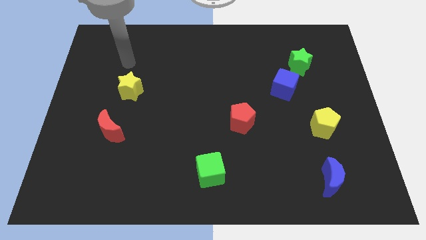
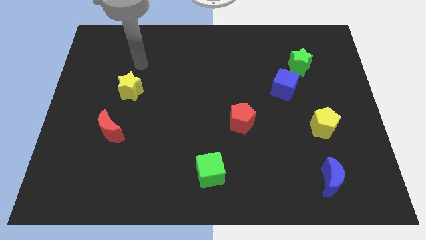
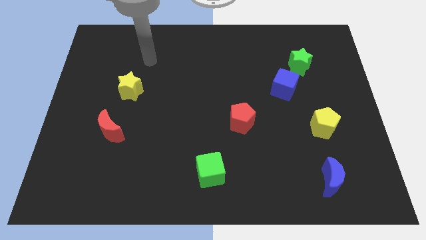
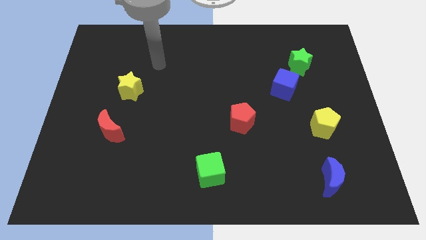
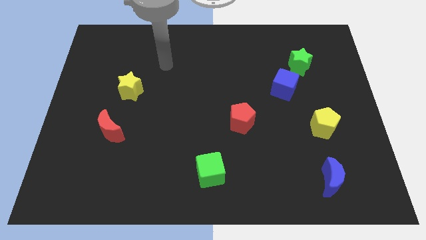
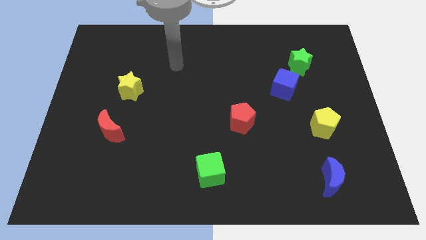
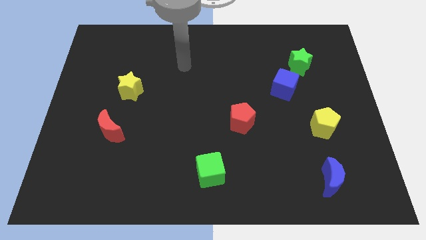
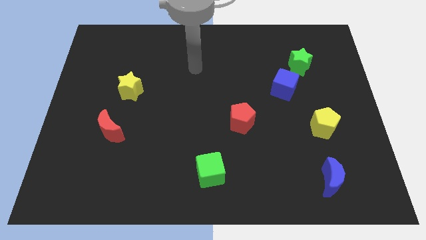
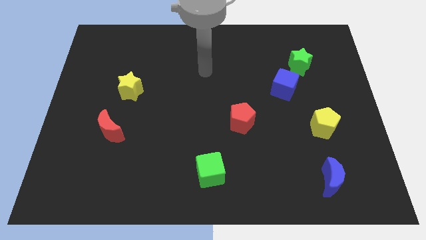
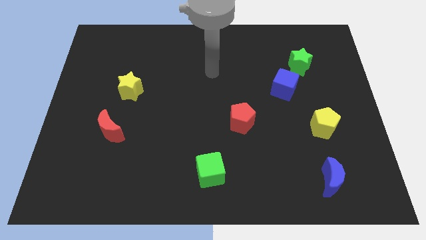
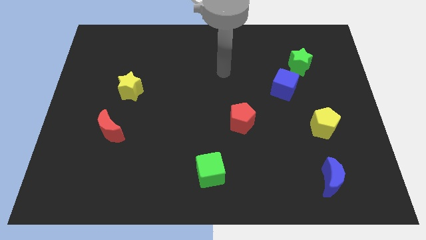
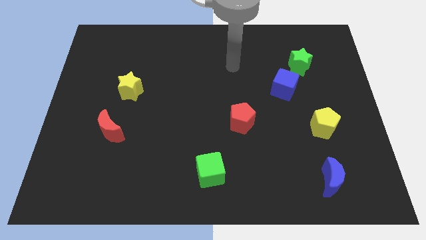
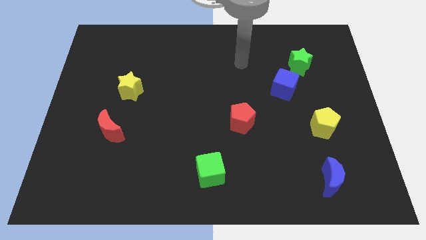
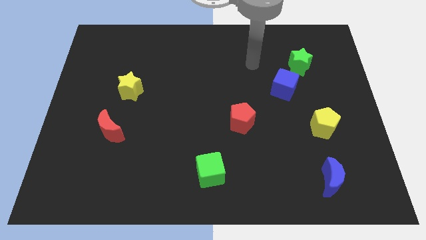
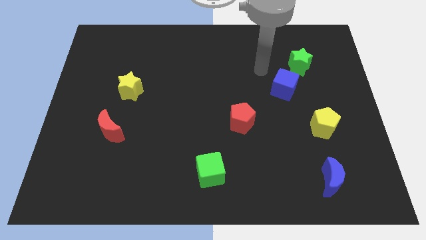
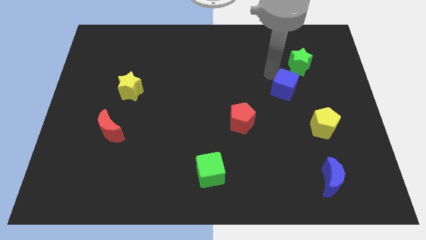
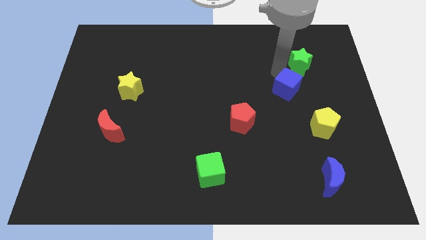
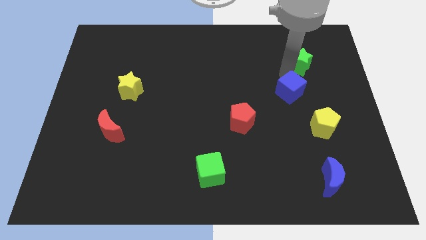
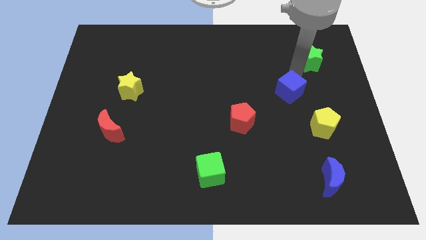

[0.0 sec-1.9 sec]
move the blue cube away from the green star

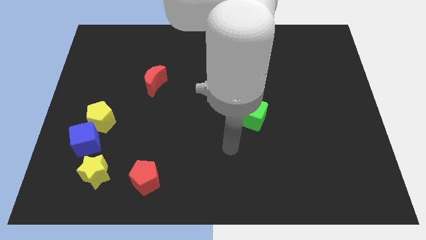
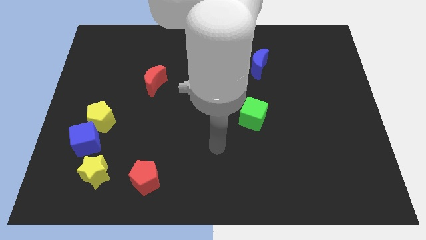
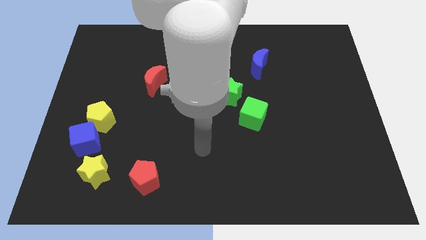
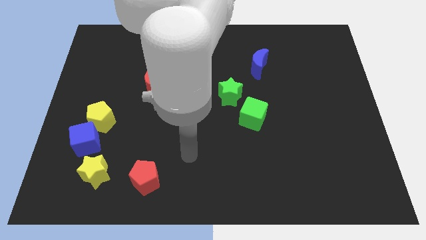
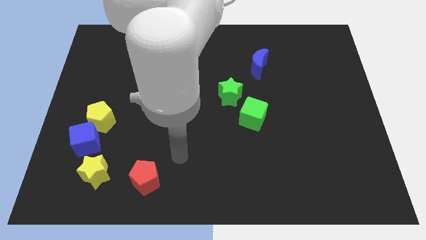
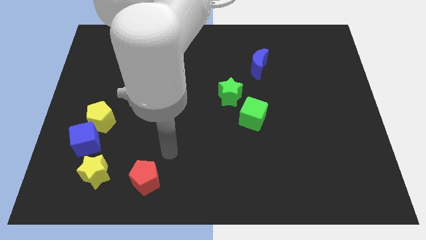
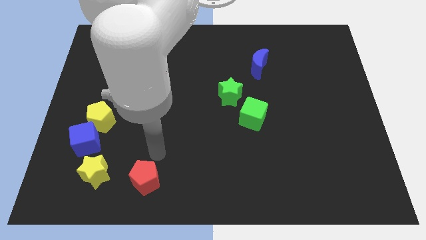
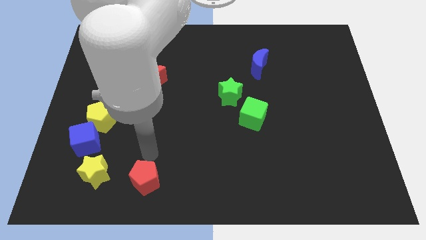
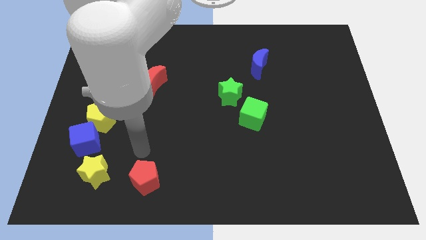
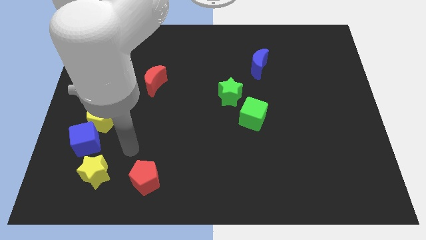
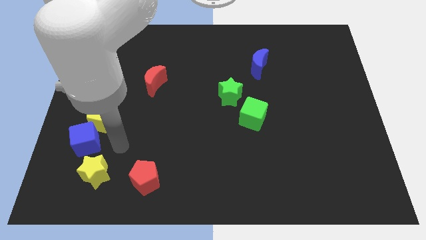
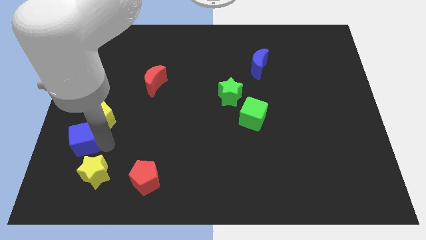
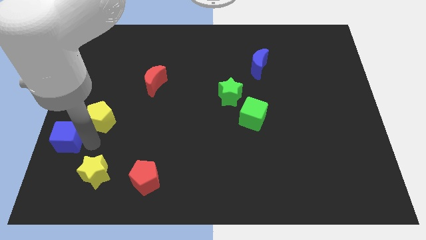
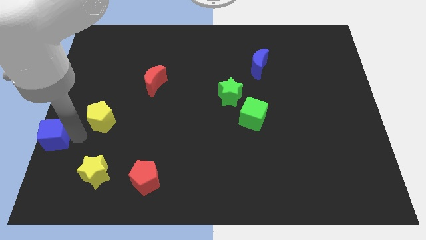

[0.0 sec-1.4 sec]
separate the yellow pentagon from the blue cube

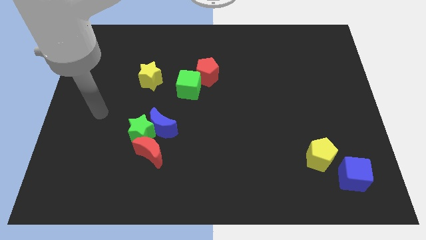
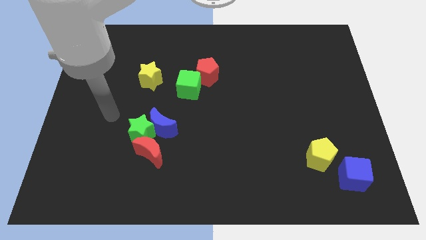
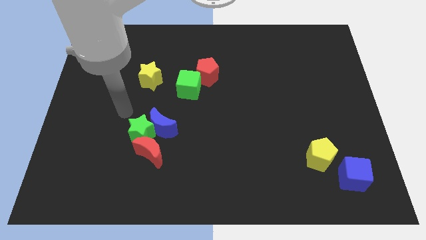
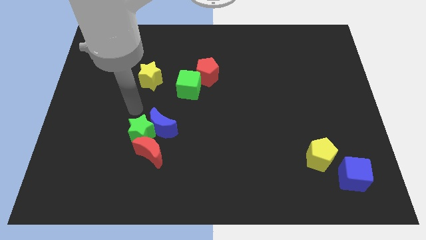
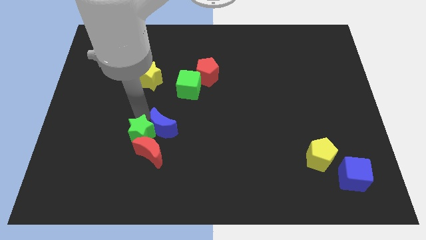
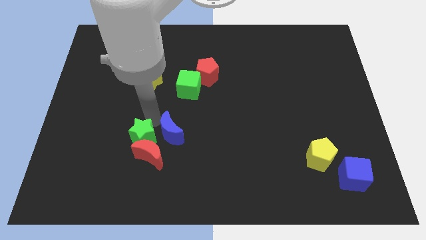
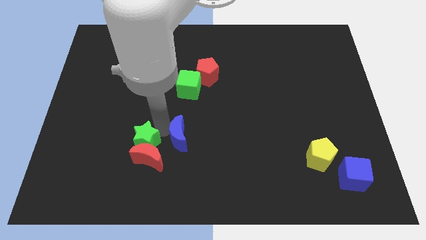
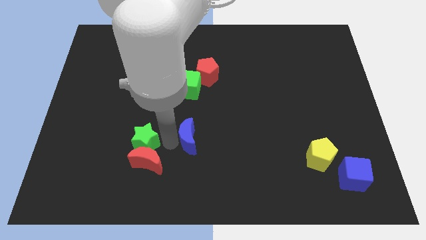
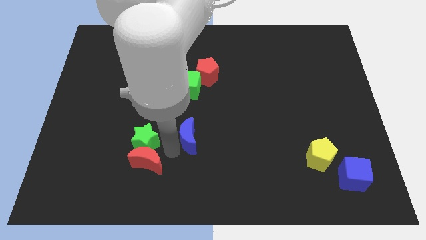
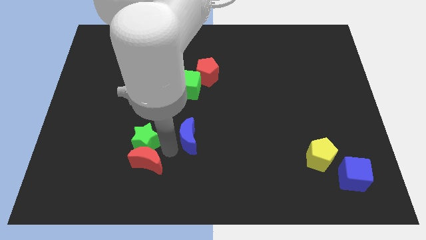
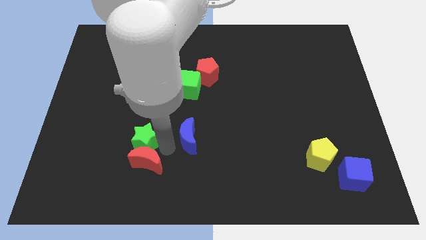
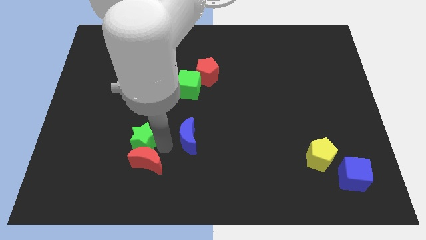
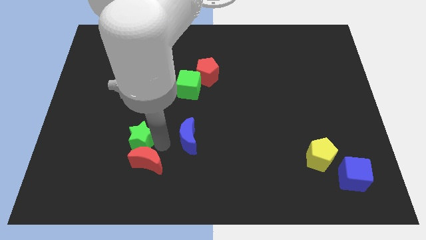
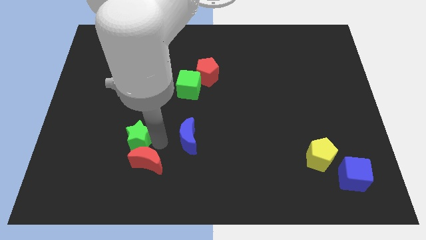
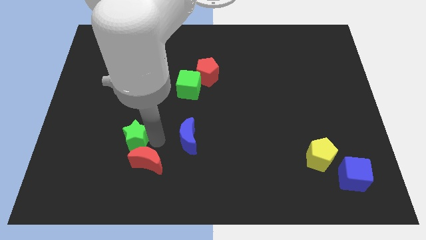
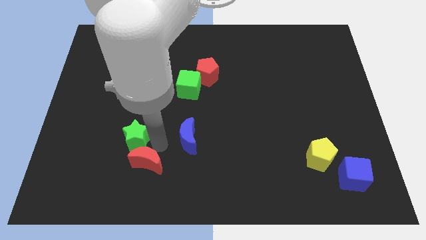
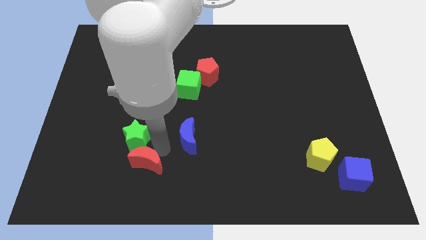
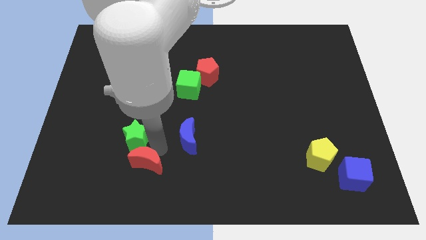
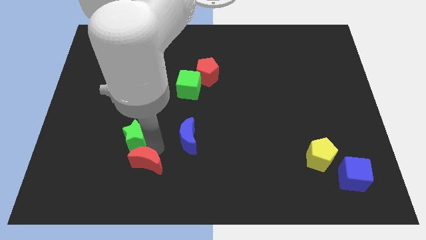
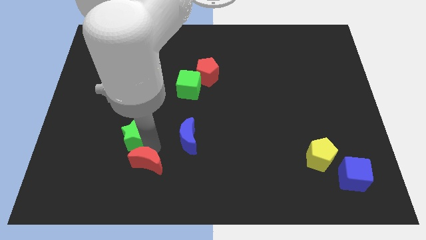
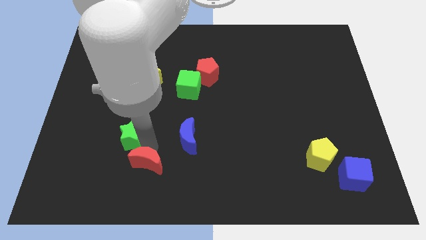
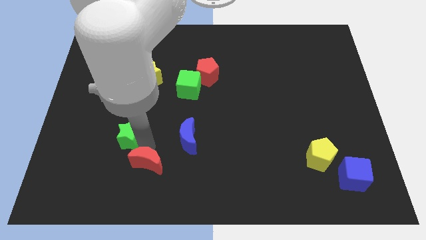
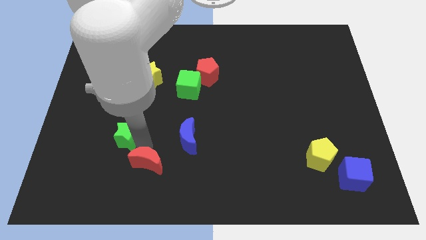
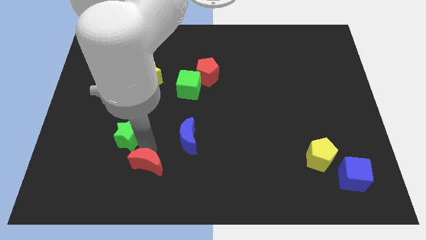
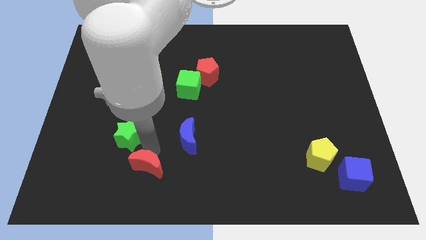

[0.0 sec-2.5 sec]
separate the green star from the blue moon and red moon

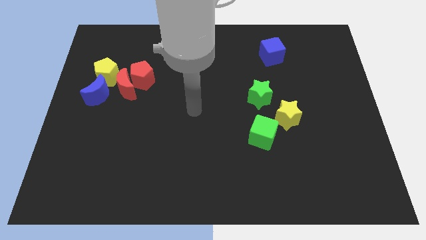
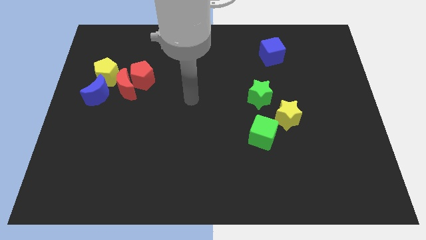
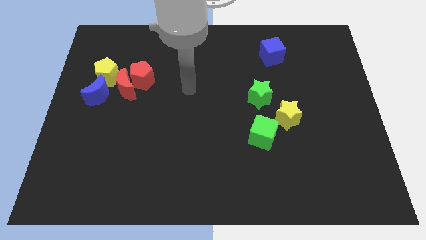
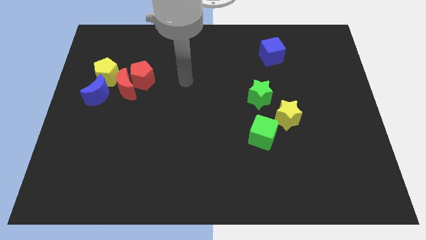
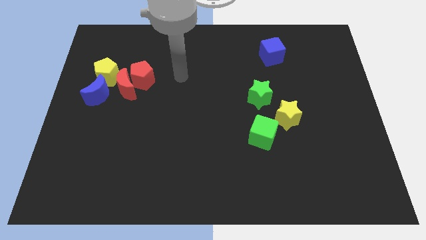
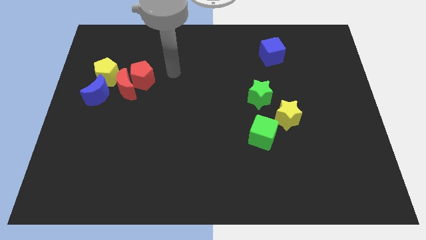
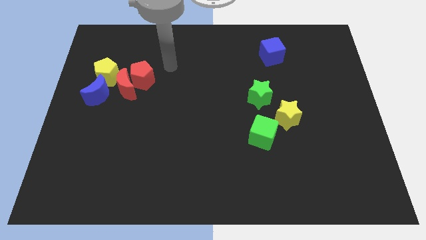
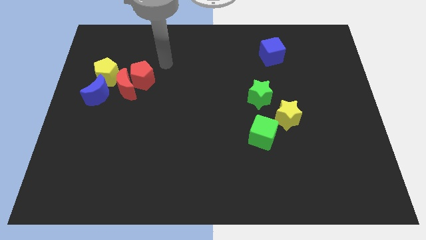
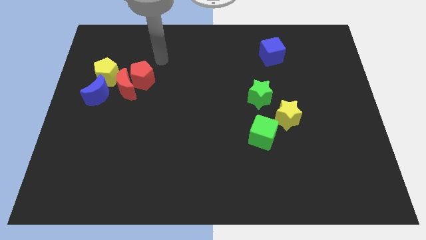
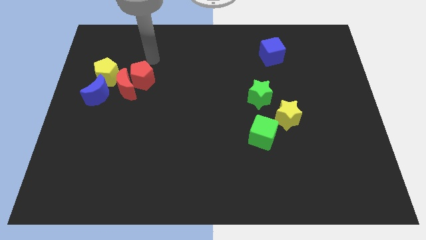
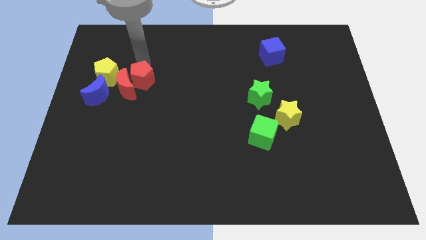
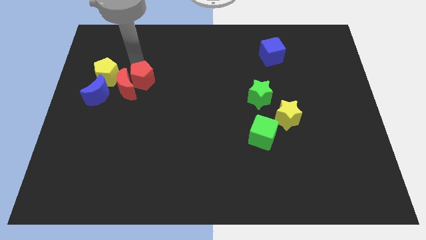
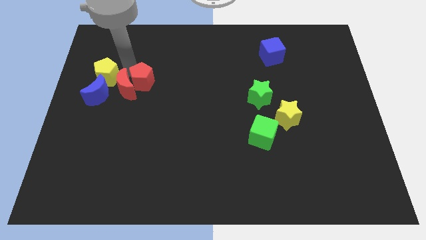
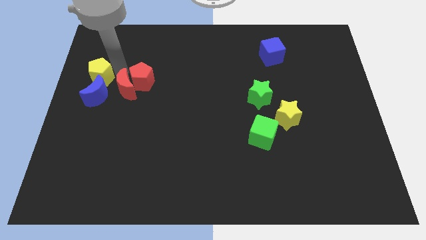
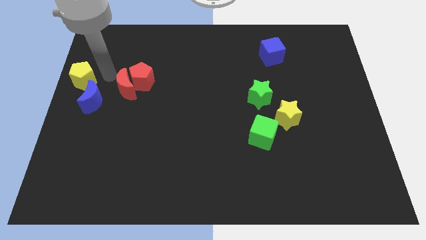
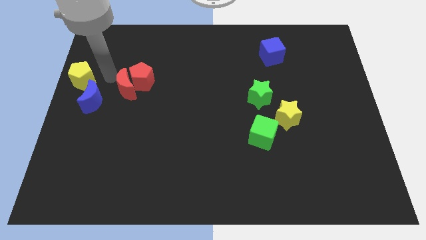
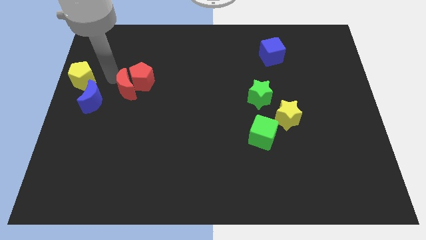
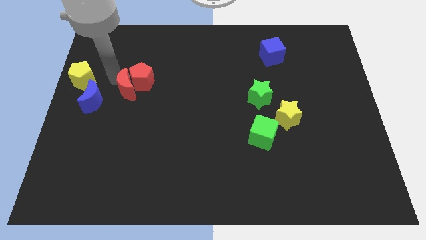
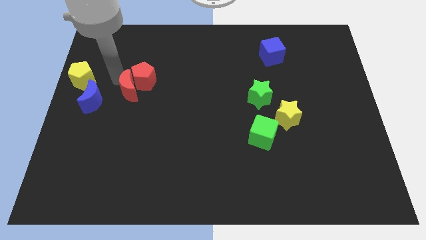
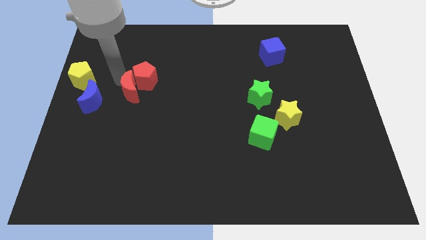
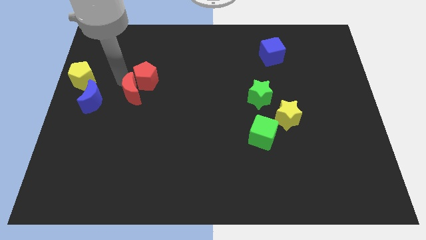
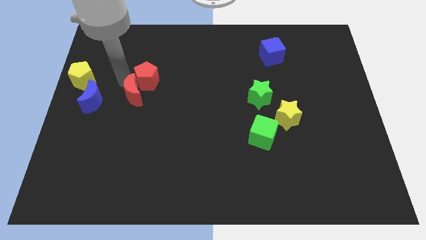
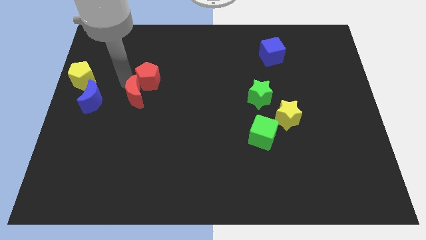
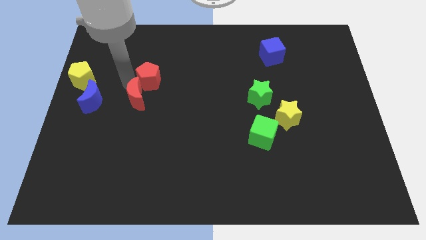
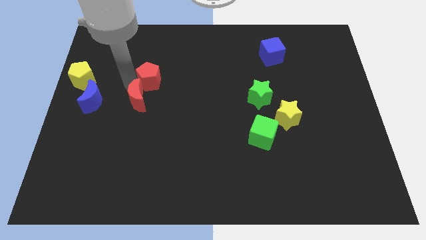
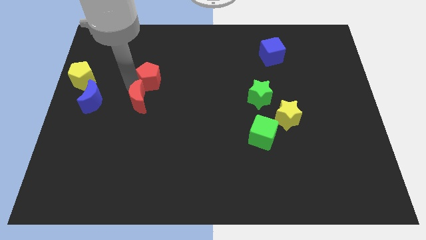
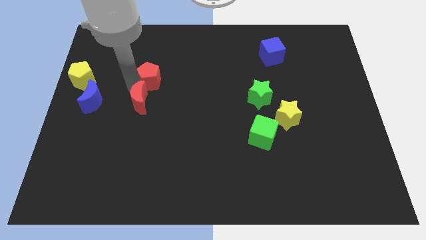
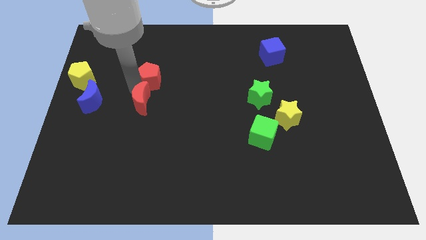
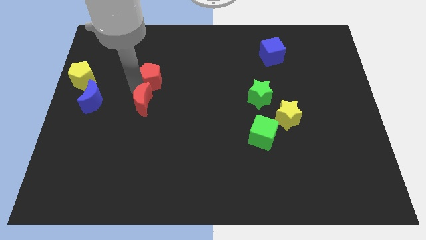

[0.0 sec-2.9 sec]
separate the red moon from the red pentagon, blue moon, and yellow pentagon

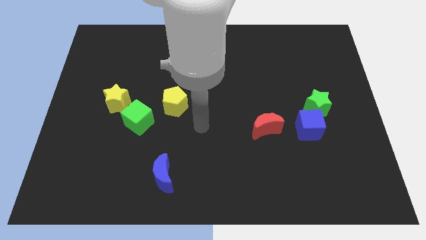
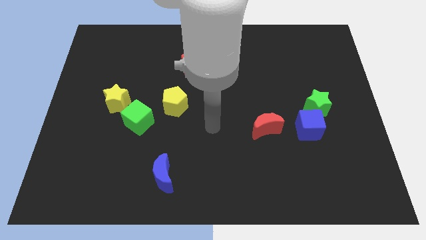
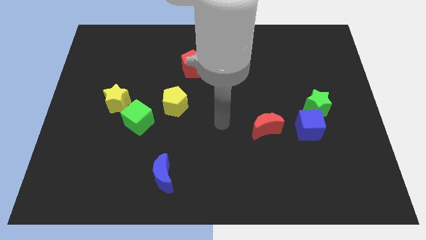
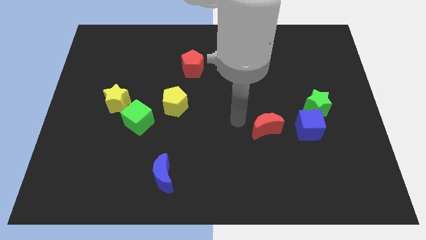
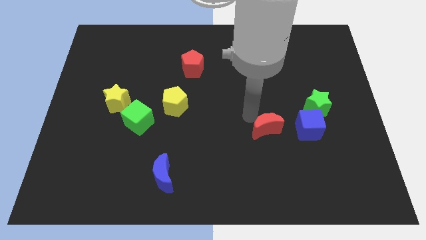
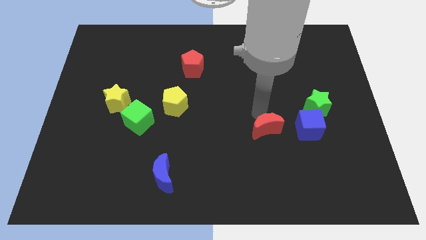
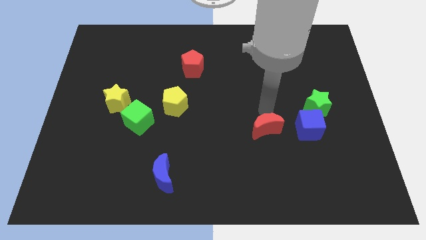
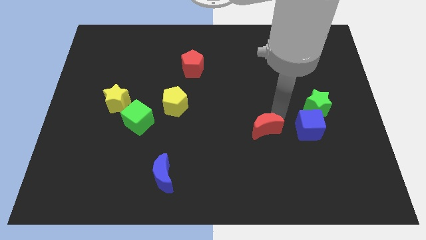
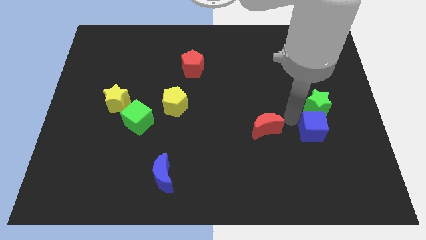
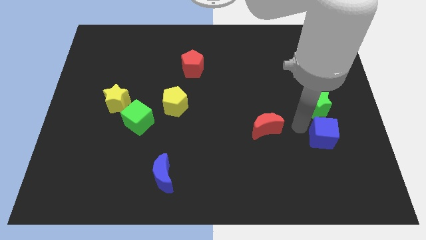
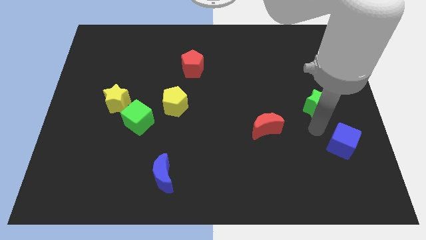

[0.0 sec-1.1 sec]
pull the green star apart from the blue cube
